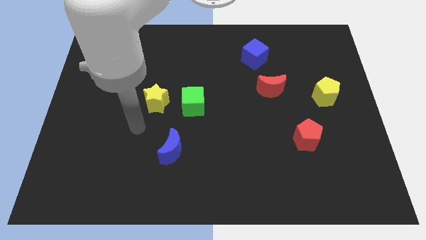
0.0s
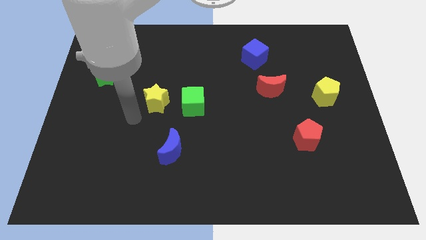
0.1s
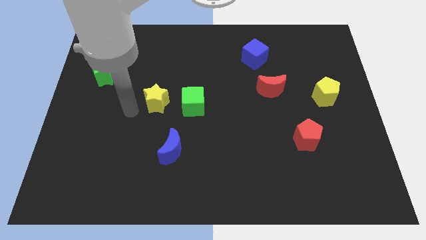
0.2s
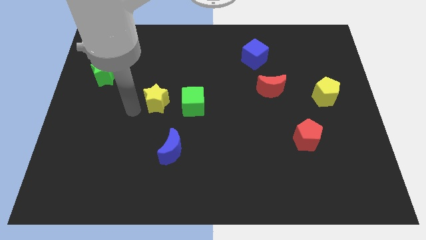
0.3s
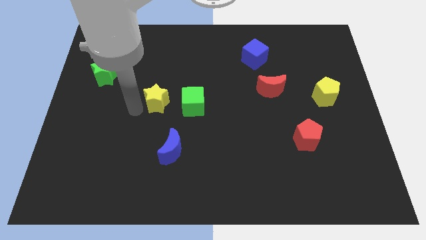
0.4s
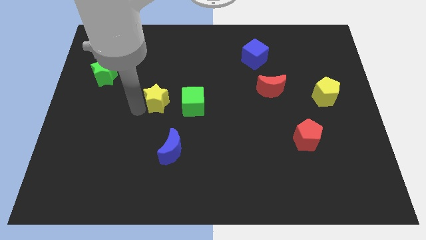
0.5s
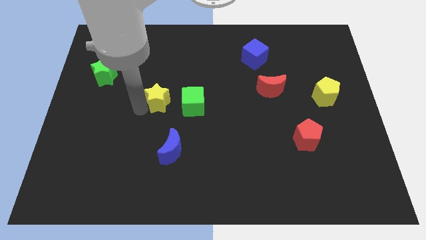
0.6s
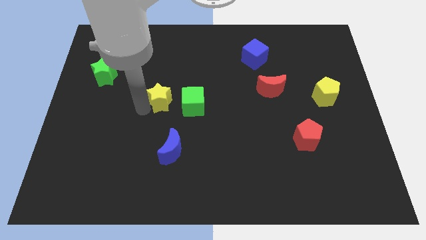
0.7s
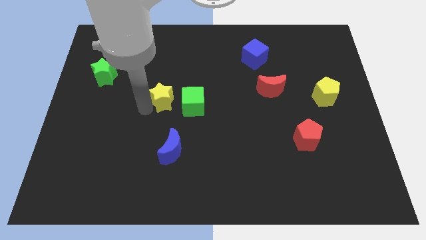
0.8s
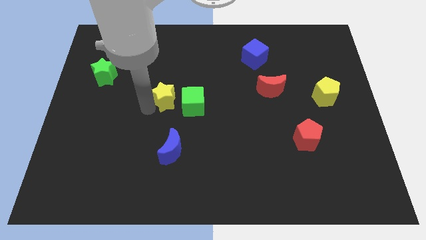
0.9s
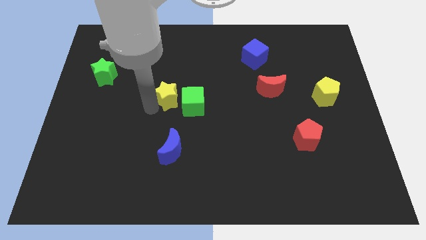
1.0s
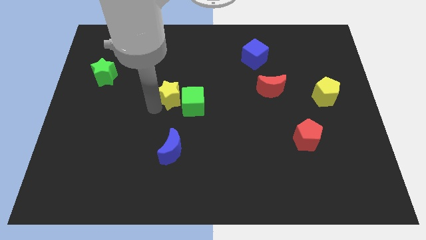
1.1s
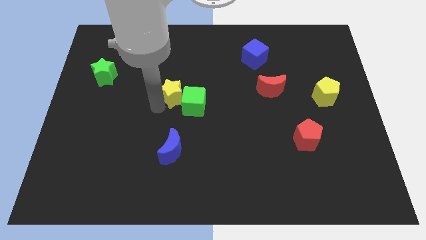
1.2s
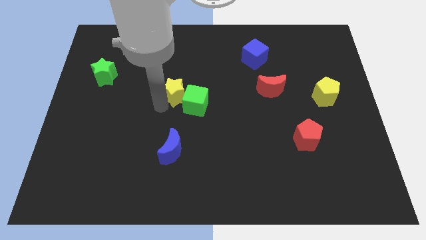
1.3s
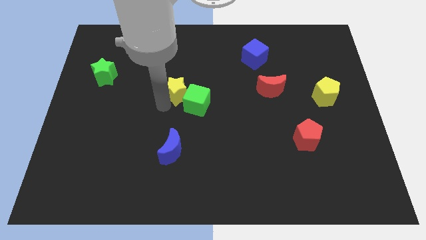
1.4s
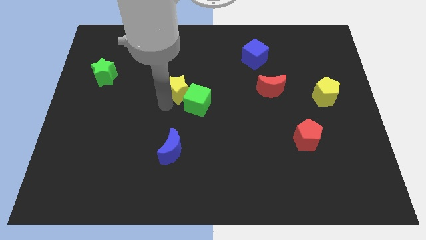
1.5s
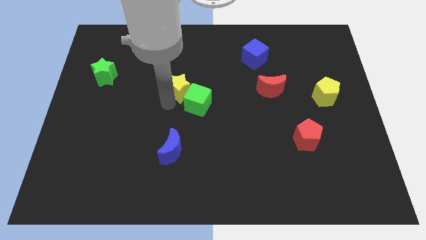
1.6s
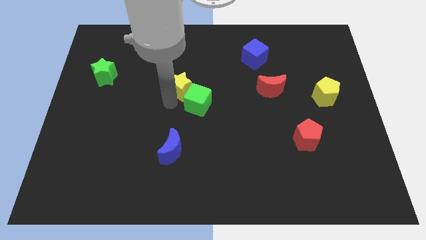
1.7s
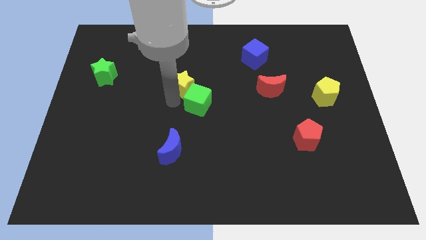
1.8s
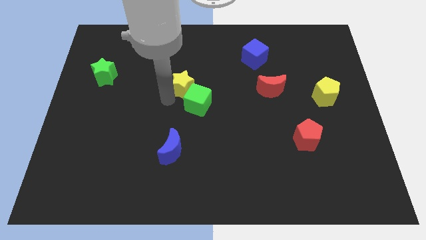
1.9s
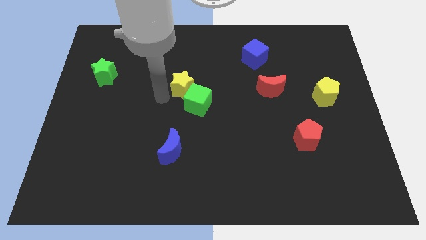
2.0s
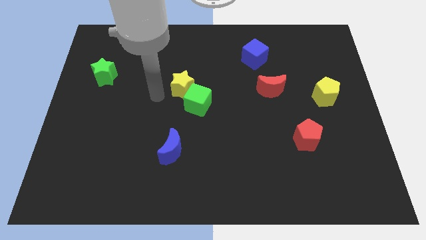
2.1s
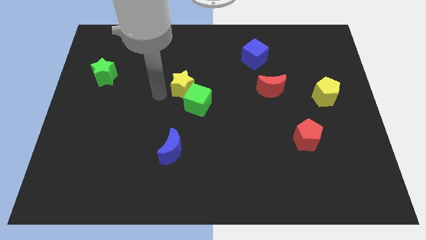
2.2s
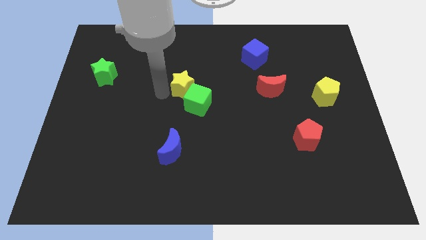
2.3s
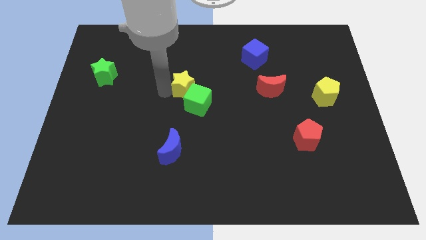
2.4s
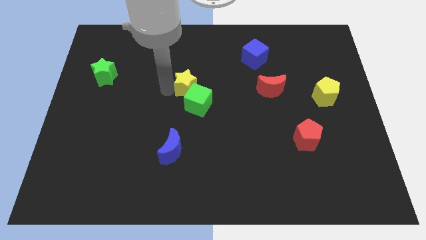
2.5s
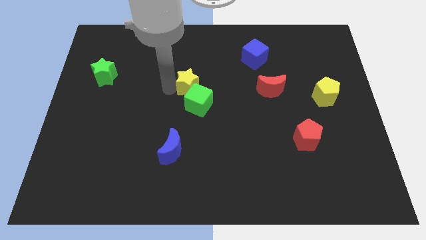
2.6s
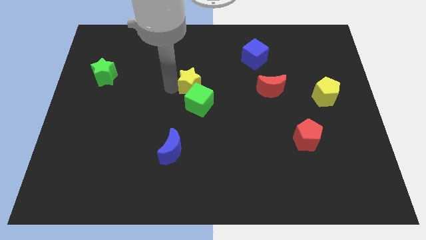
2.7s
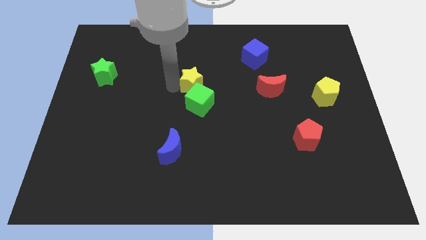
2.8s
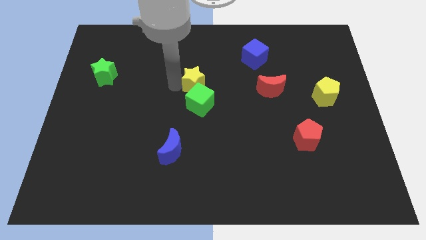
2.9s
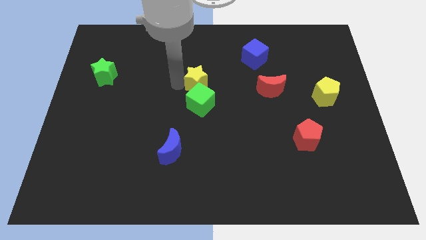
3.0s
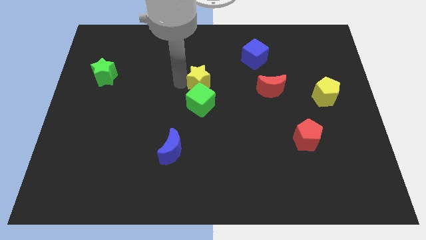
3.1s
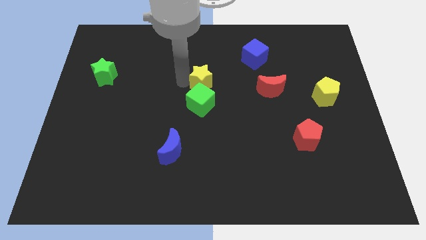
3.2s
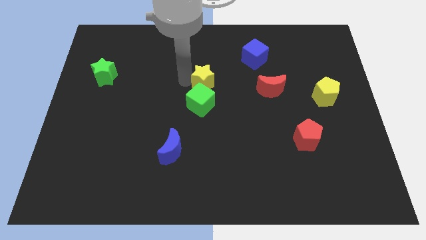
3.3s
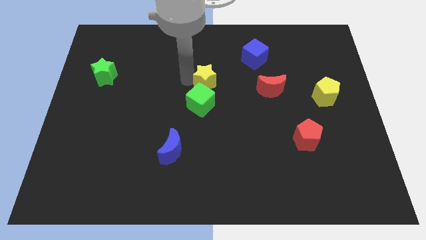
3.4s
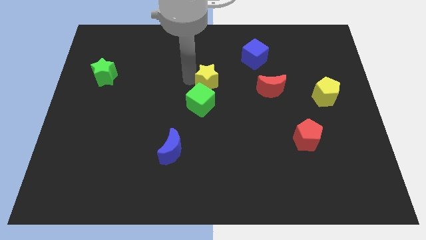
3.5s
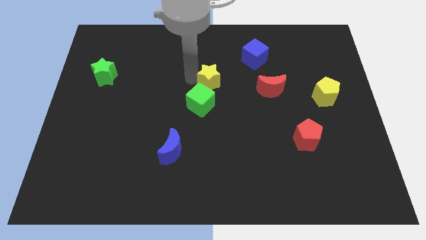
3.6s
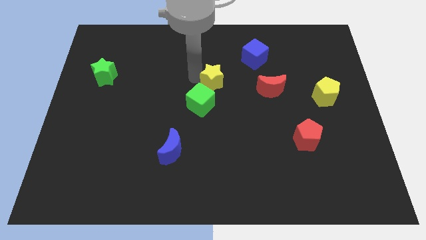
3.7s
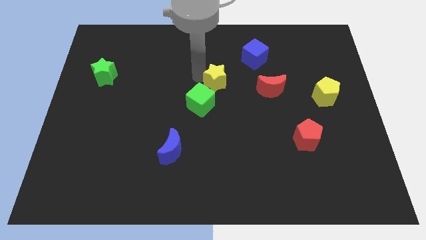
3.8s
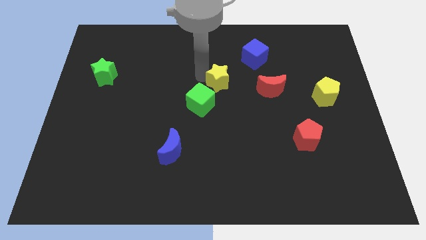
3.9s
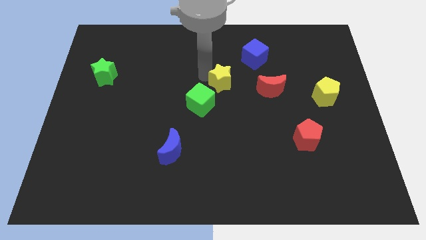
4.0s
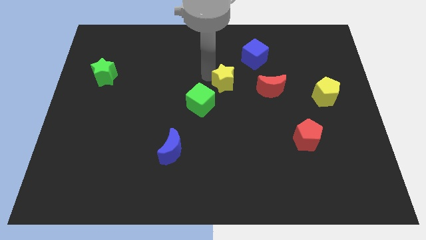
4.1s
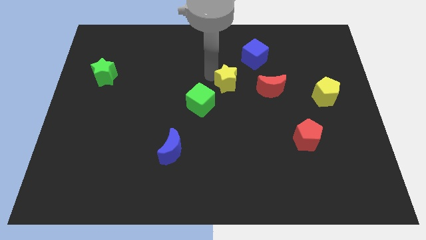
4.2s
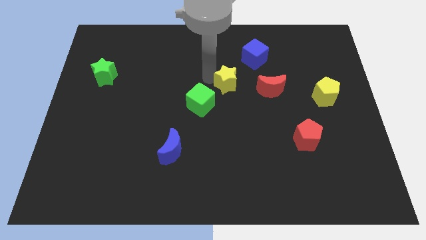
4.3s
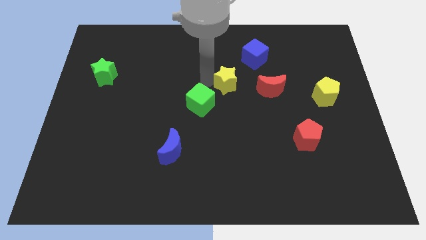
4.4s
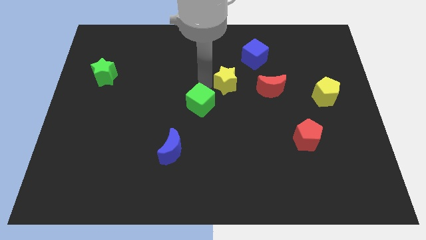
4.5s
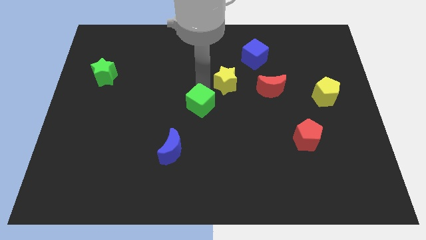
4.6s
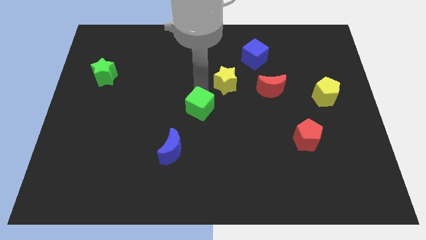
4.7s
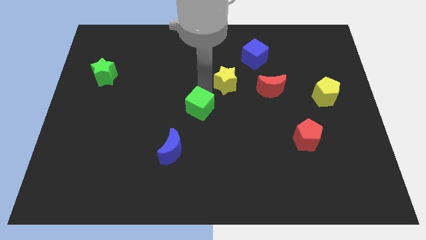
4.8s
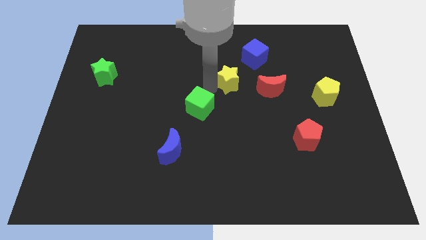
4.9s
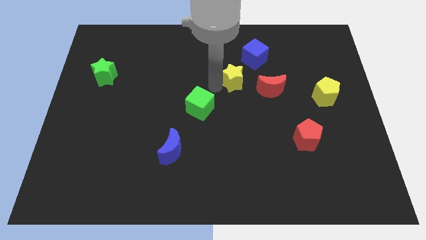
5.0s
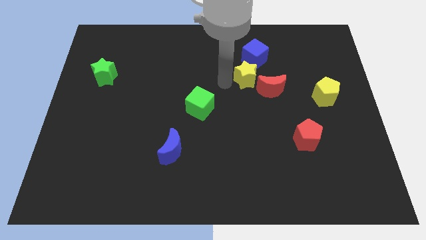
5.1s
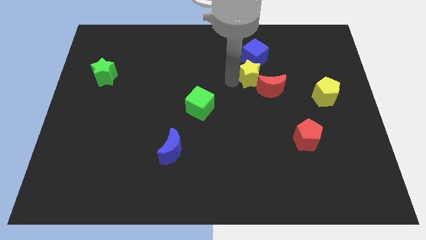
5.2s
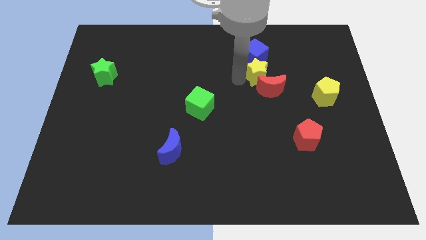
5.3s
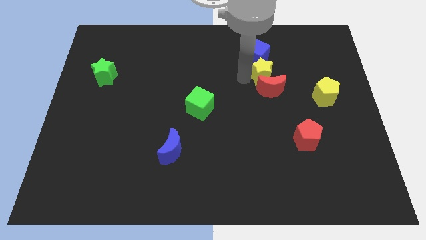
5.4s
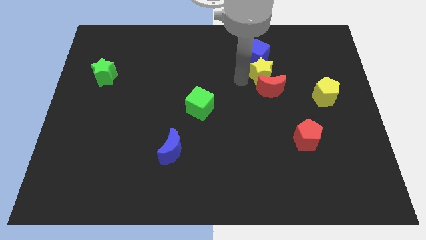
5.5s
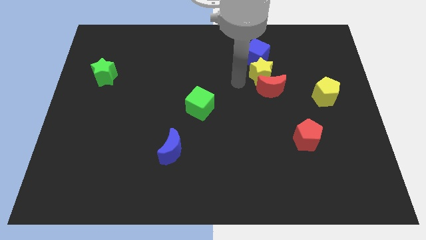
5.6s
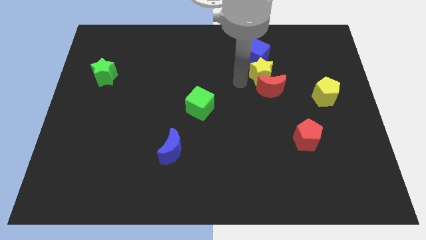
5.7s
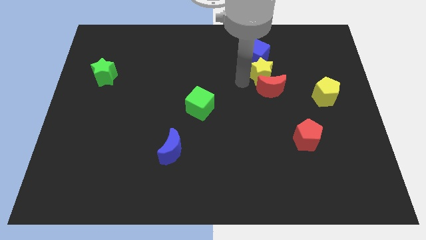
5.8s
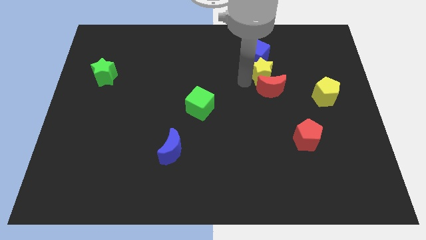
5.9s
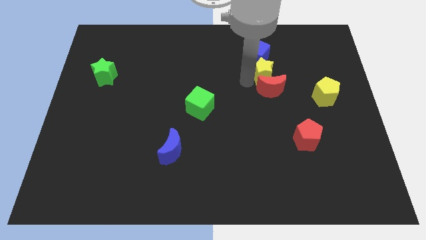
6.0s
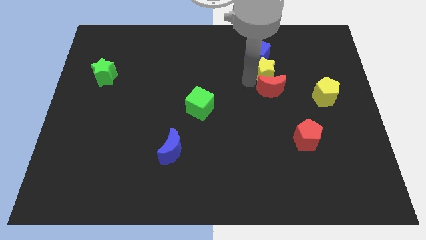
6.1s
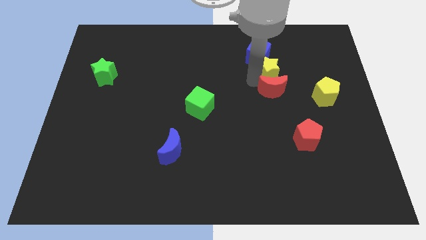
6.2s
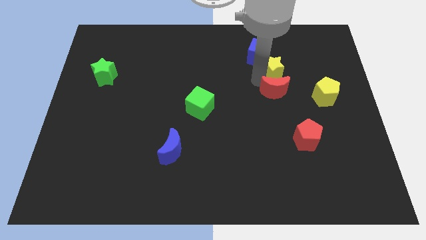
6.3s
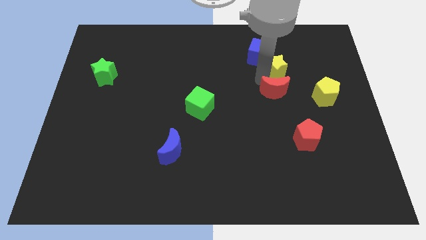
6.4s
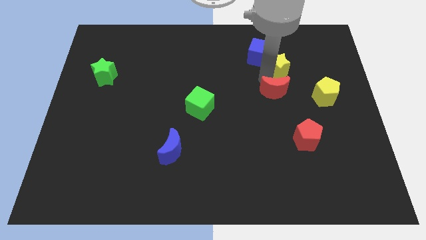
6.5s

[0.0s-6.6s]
push the yellow star right of the blue cube
